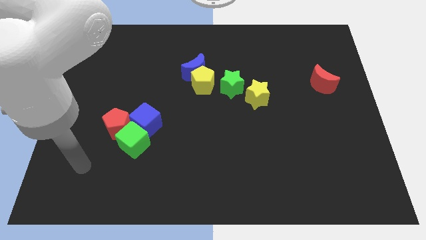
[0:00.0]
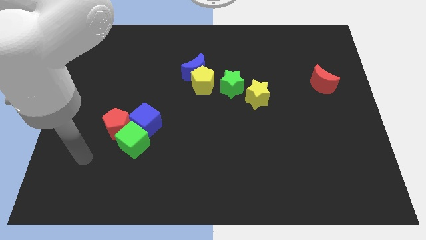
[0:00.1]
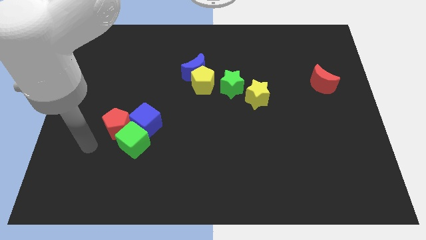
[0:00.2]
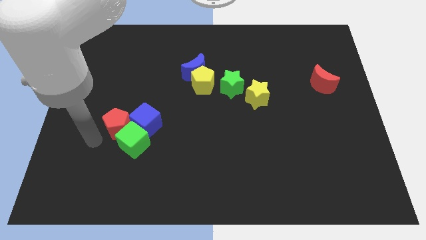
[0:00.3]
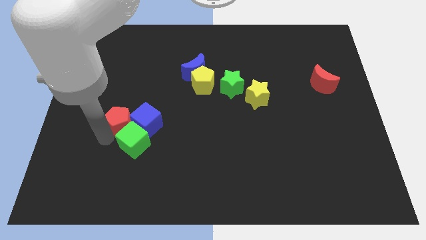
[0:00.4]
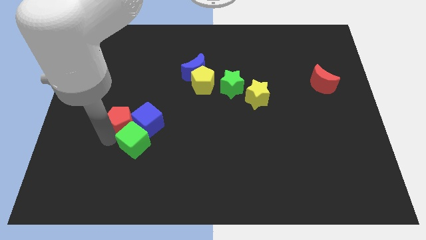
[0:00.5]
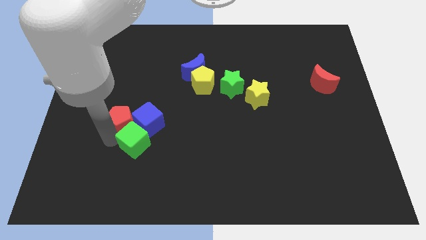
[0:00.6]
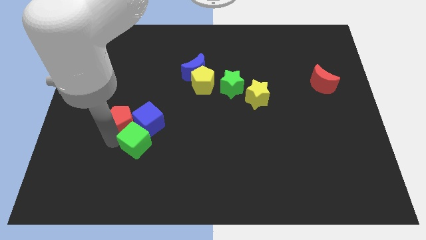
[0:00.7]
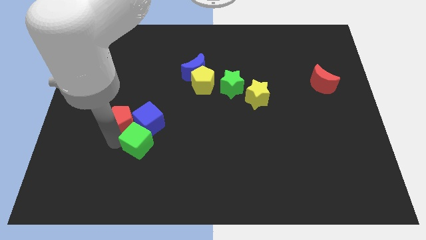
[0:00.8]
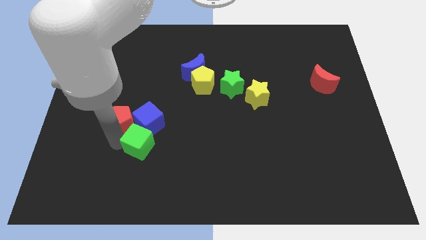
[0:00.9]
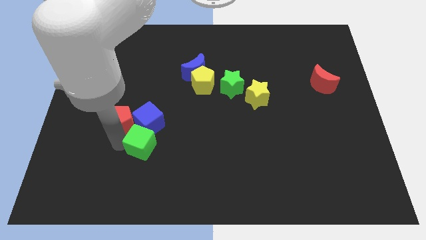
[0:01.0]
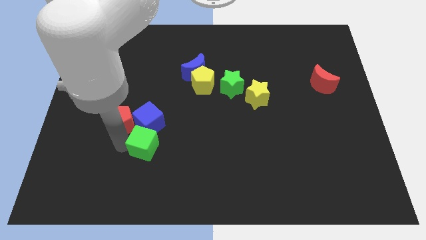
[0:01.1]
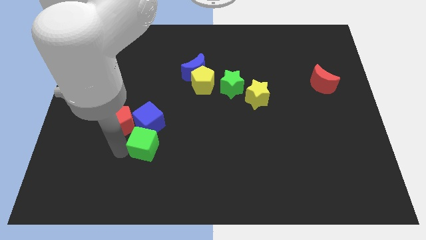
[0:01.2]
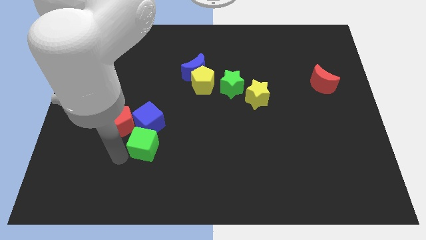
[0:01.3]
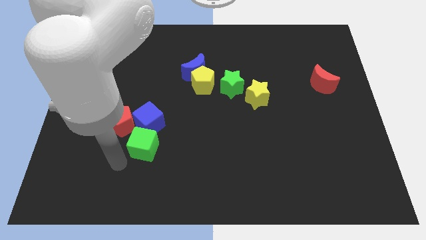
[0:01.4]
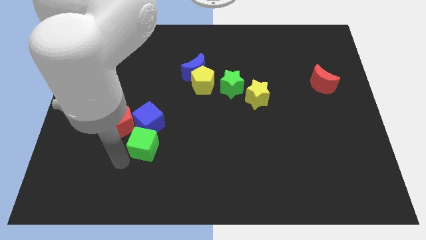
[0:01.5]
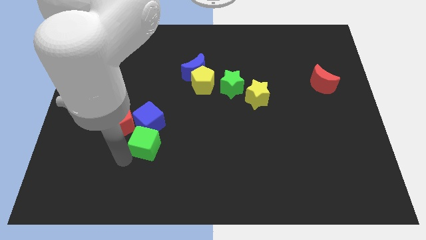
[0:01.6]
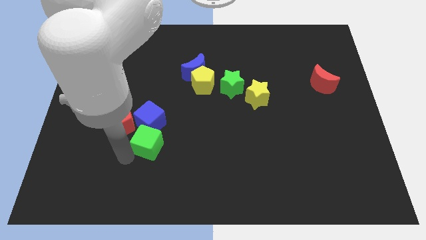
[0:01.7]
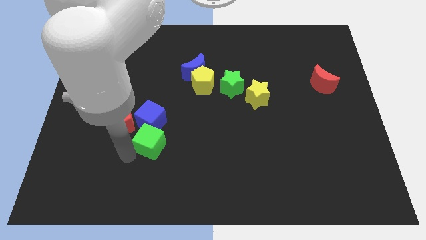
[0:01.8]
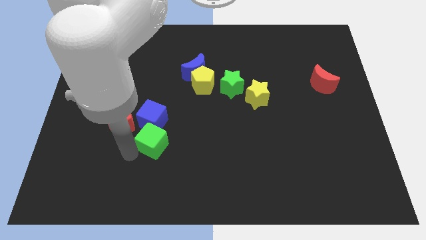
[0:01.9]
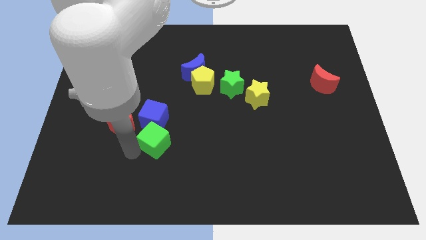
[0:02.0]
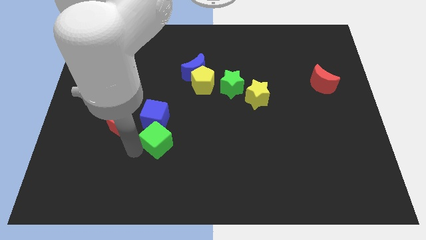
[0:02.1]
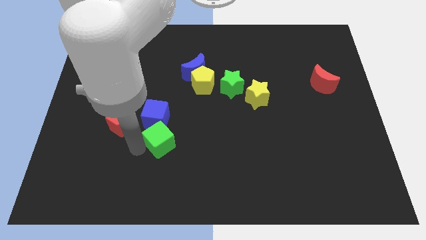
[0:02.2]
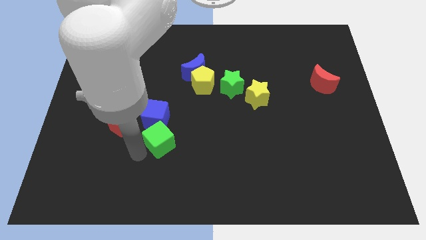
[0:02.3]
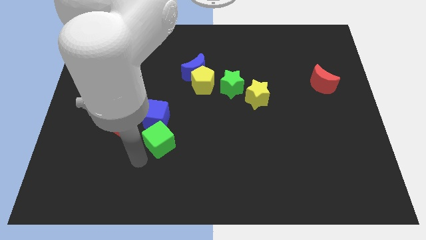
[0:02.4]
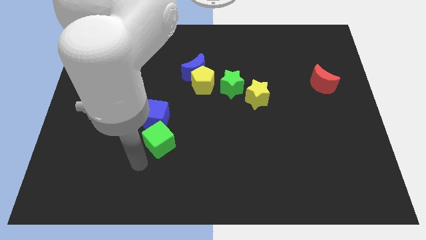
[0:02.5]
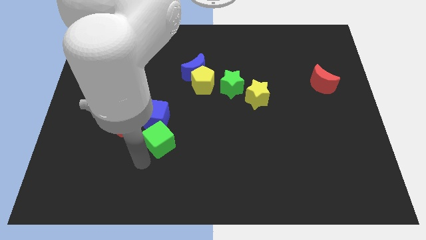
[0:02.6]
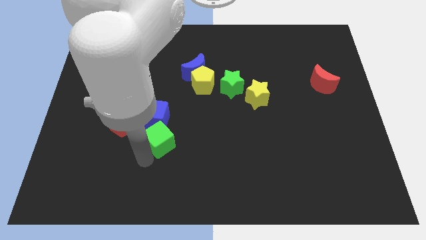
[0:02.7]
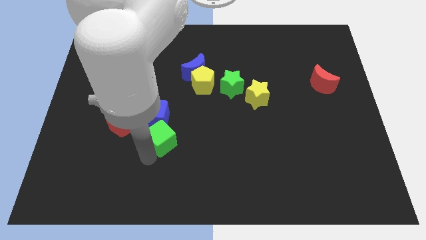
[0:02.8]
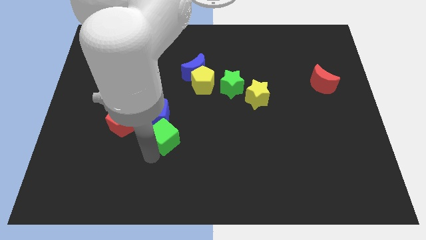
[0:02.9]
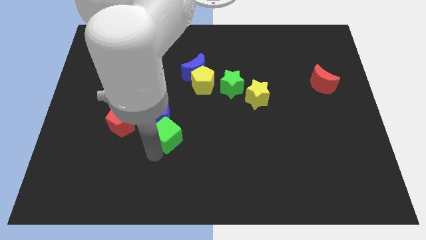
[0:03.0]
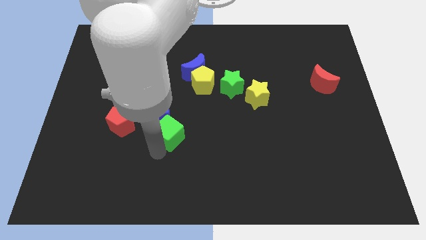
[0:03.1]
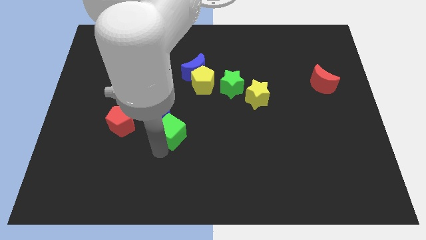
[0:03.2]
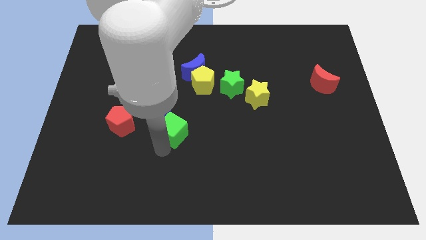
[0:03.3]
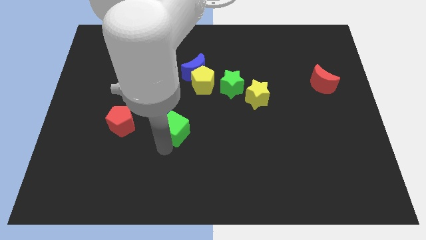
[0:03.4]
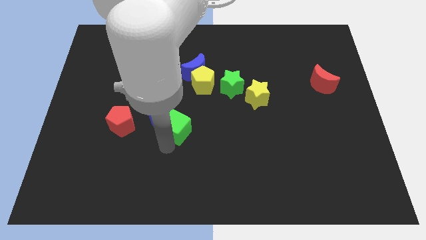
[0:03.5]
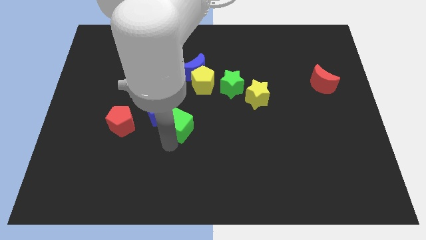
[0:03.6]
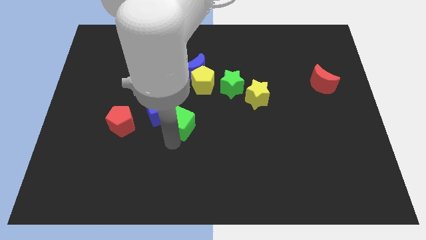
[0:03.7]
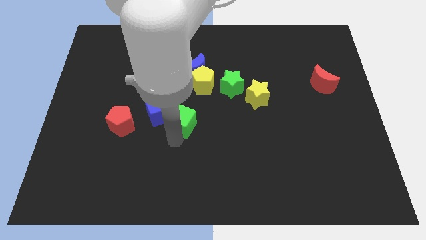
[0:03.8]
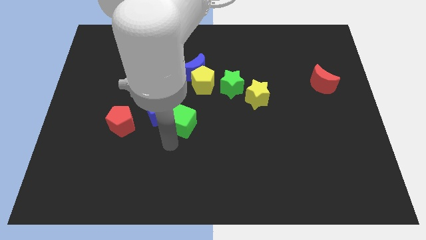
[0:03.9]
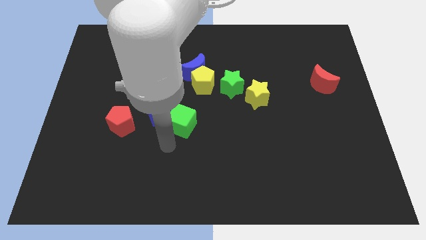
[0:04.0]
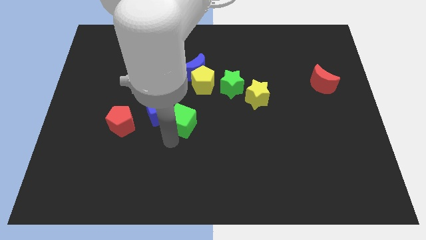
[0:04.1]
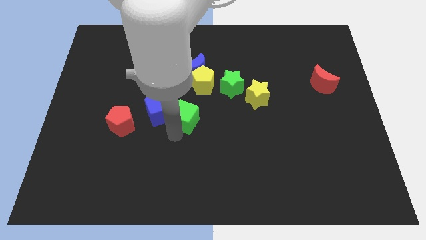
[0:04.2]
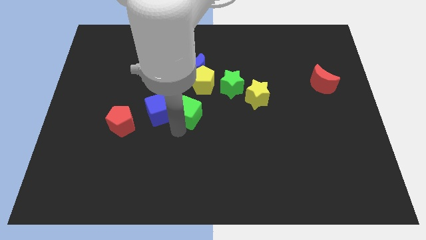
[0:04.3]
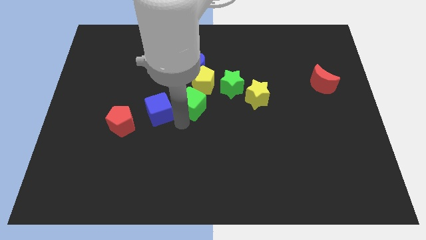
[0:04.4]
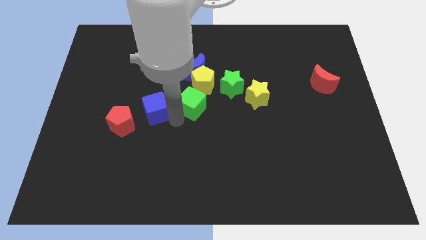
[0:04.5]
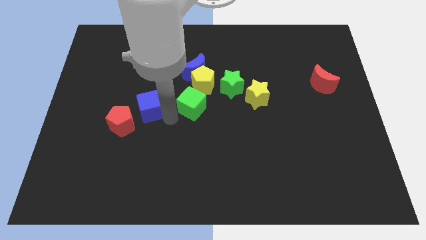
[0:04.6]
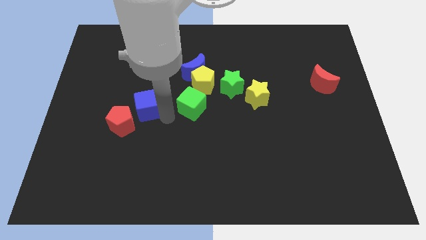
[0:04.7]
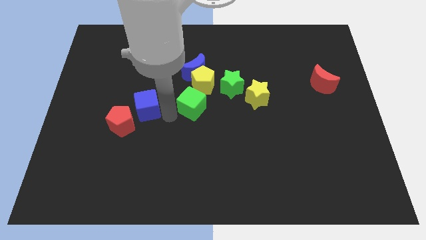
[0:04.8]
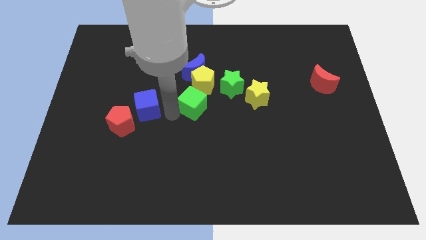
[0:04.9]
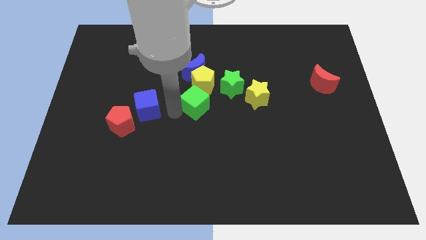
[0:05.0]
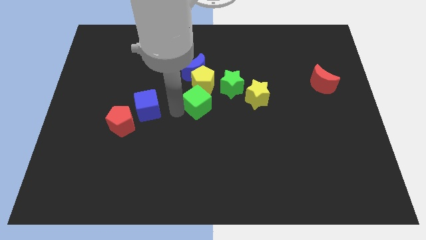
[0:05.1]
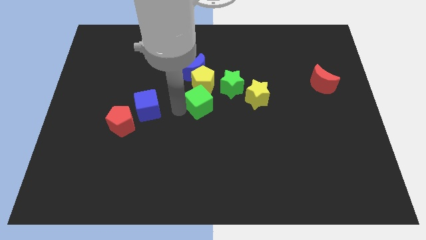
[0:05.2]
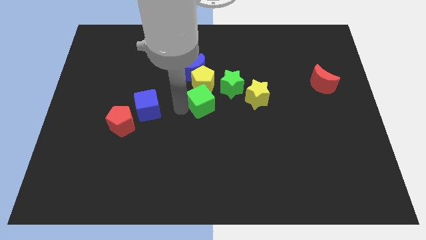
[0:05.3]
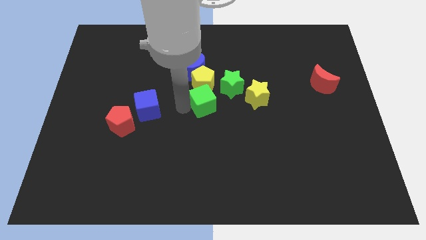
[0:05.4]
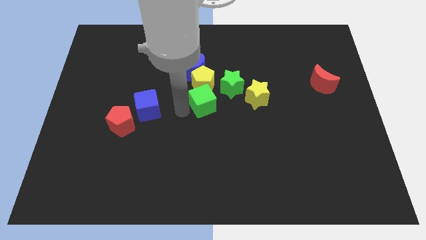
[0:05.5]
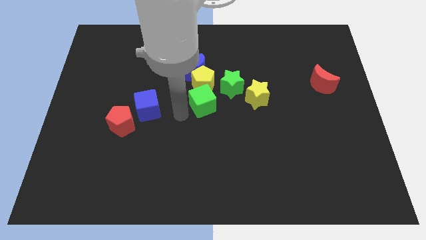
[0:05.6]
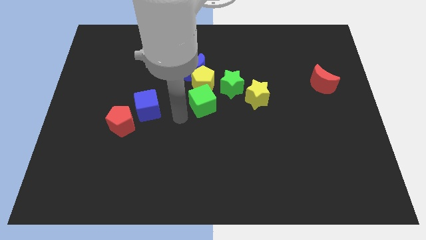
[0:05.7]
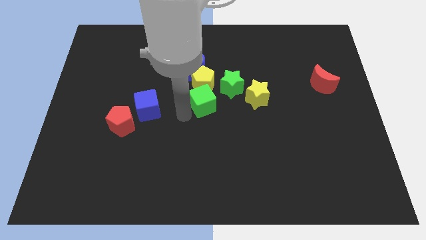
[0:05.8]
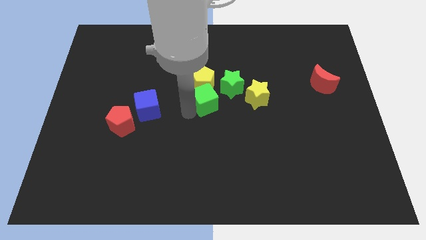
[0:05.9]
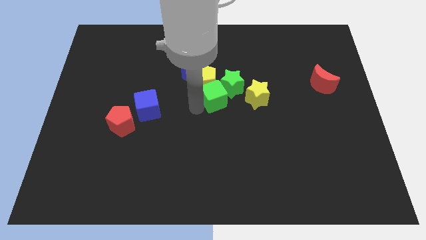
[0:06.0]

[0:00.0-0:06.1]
push the green cube close to the green star

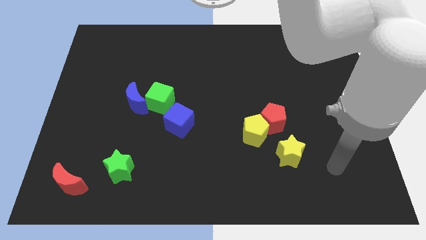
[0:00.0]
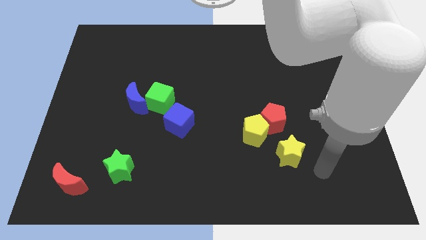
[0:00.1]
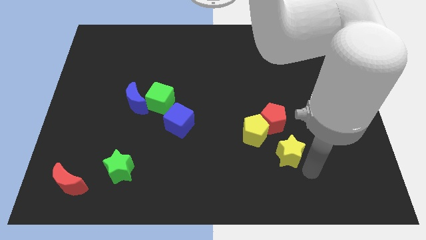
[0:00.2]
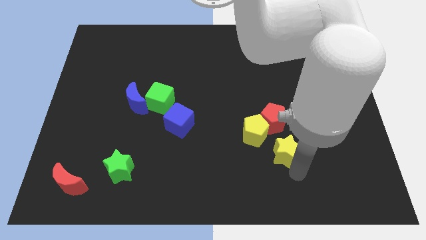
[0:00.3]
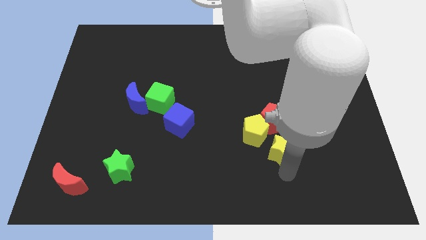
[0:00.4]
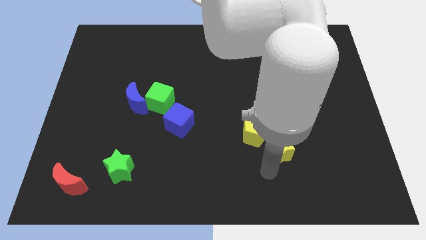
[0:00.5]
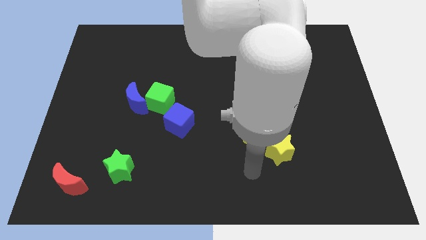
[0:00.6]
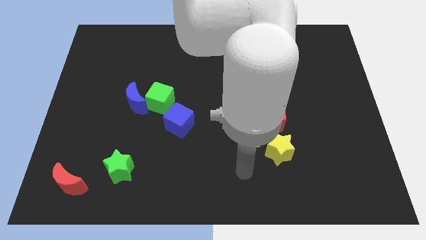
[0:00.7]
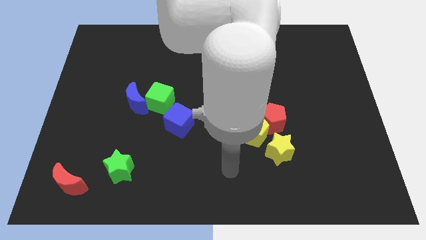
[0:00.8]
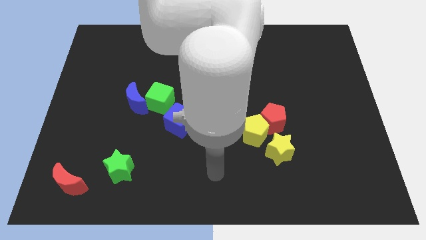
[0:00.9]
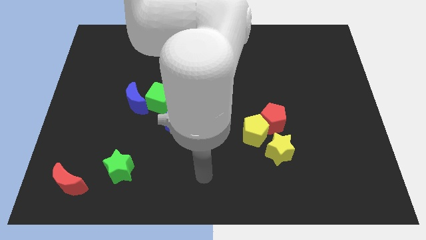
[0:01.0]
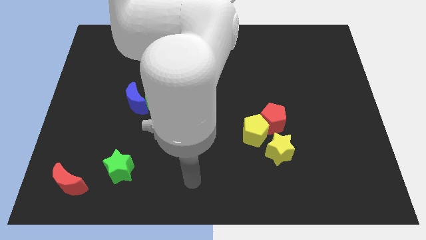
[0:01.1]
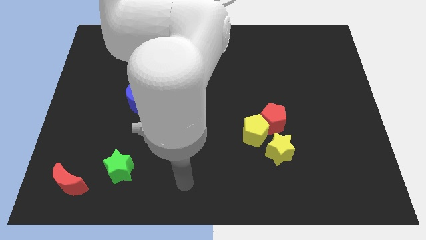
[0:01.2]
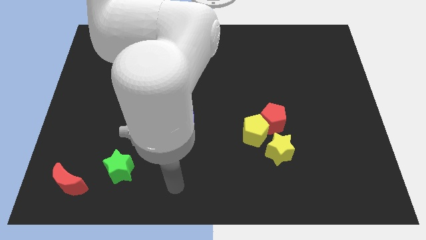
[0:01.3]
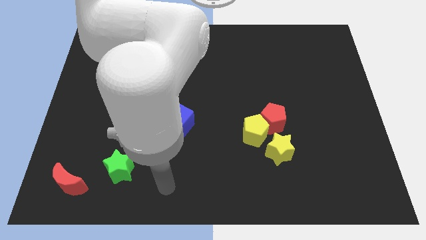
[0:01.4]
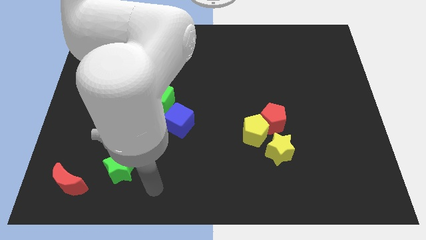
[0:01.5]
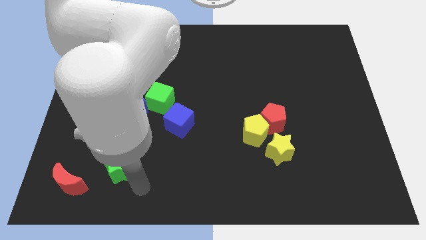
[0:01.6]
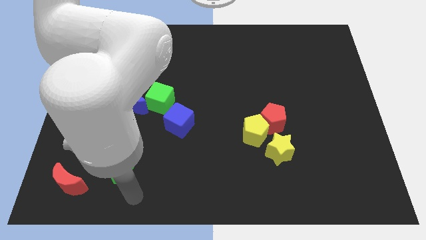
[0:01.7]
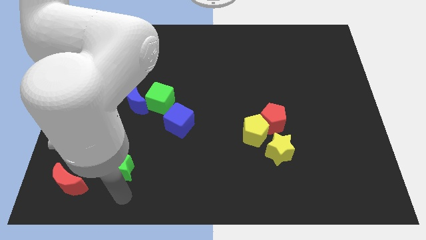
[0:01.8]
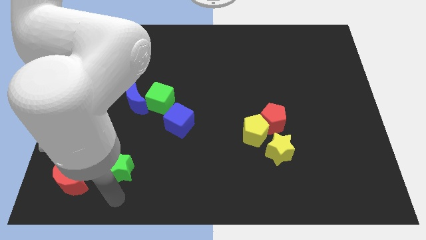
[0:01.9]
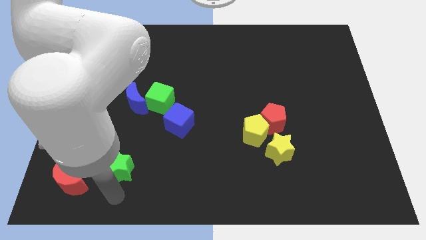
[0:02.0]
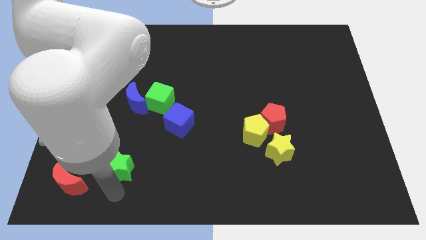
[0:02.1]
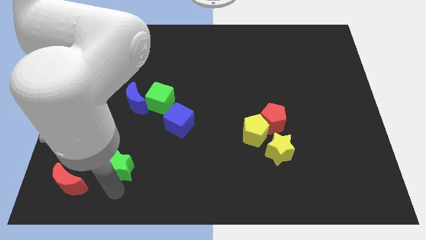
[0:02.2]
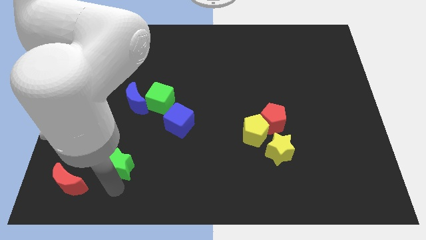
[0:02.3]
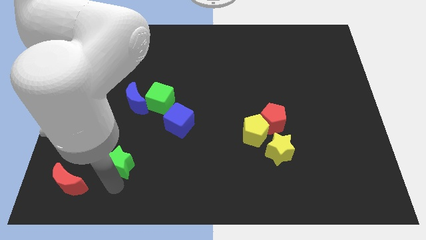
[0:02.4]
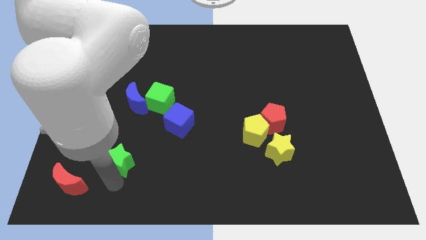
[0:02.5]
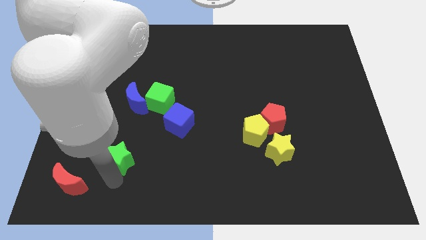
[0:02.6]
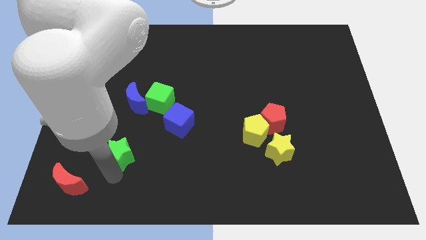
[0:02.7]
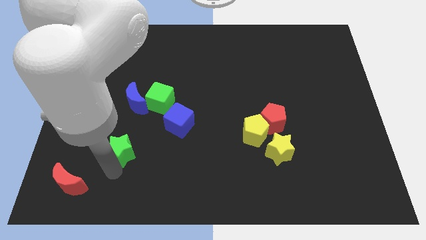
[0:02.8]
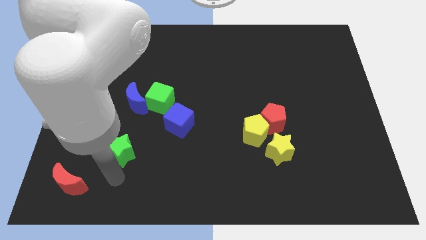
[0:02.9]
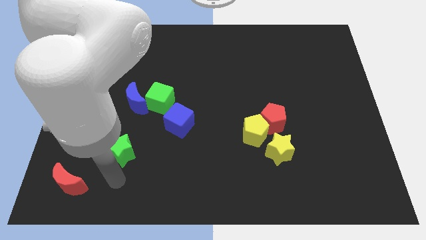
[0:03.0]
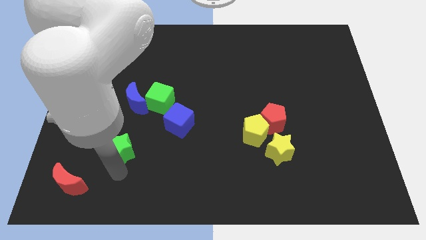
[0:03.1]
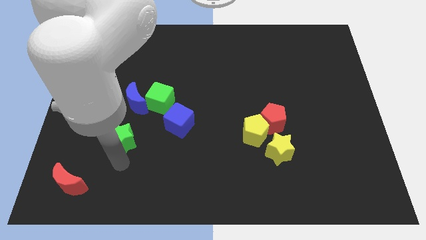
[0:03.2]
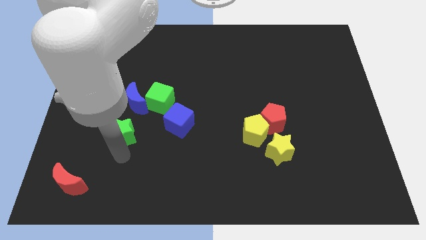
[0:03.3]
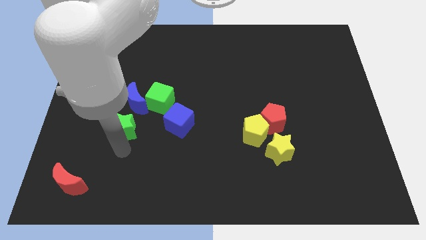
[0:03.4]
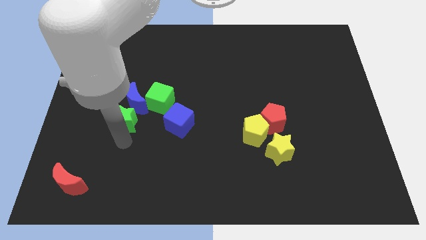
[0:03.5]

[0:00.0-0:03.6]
move the green star to the blue moon
